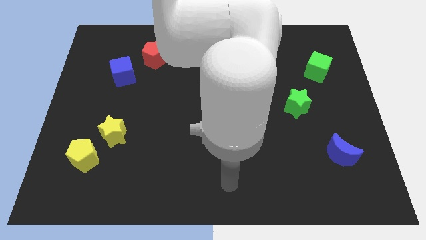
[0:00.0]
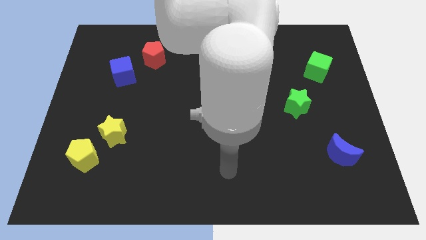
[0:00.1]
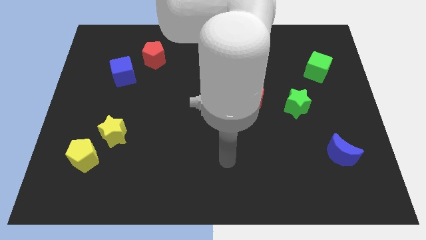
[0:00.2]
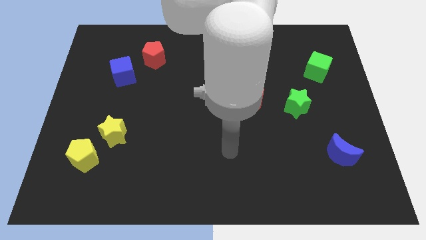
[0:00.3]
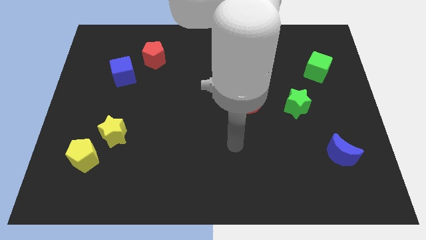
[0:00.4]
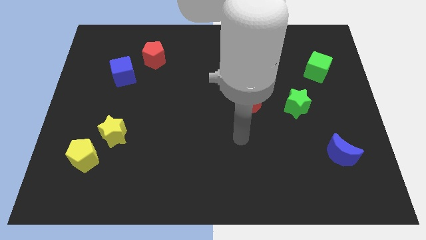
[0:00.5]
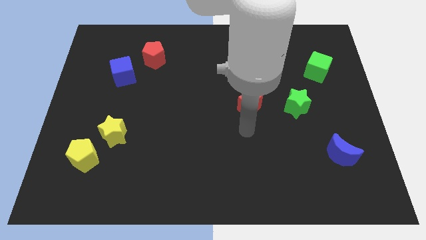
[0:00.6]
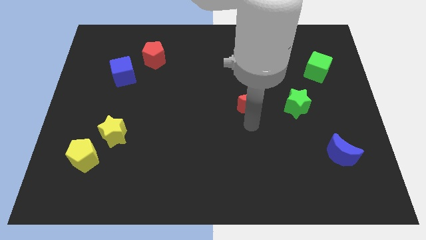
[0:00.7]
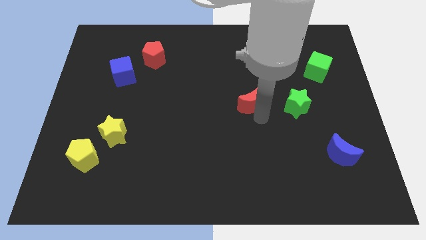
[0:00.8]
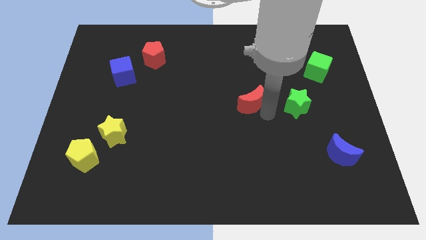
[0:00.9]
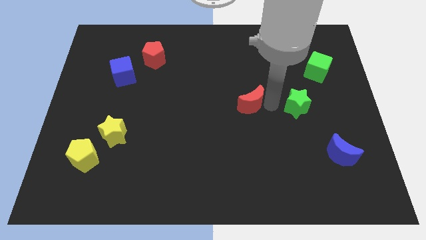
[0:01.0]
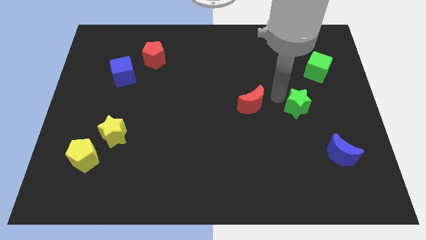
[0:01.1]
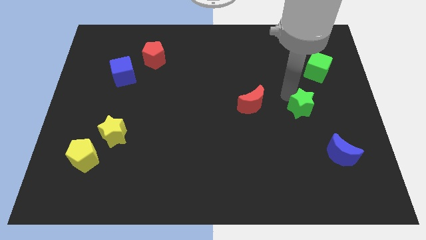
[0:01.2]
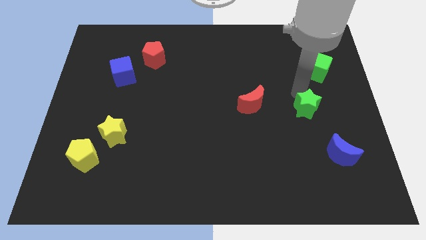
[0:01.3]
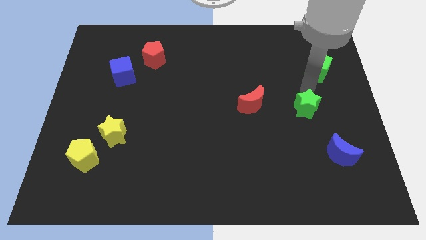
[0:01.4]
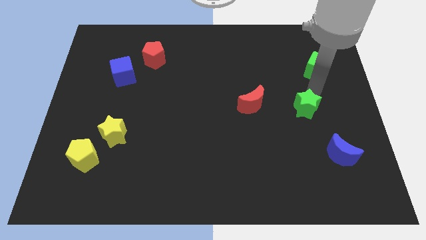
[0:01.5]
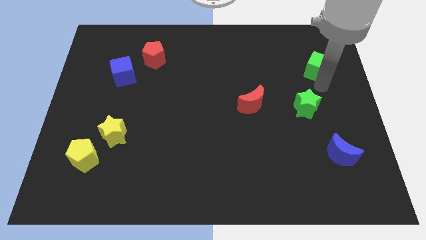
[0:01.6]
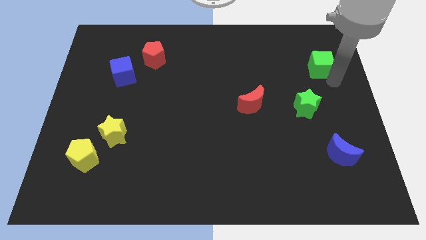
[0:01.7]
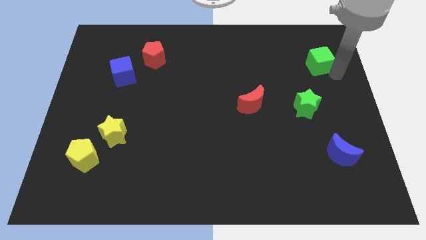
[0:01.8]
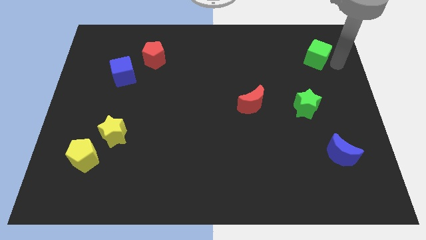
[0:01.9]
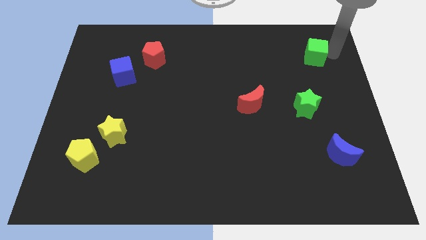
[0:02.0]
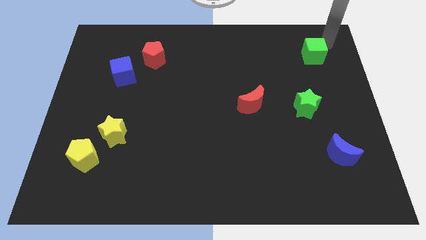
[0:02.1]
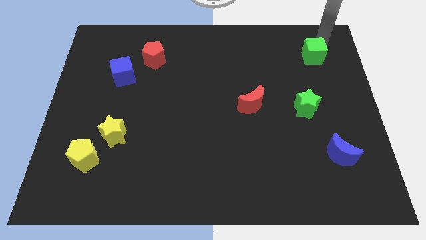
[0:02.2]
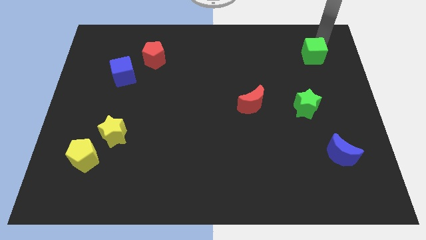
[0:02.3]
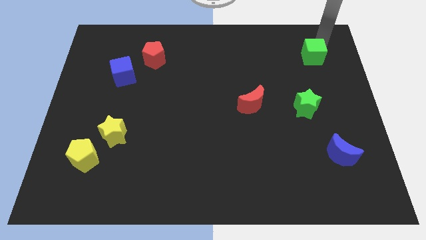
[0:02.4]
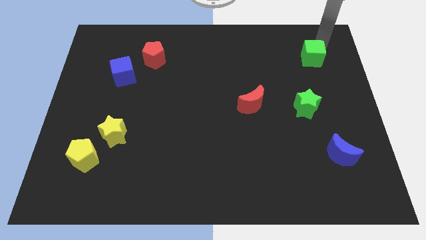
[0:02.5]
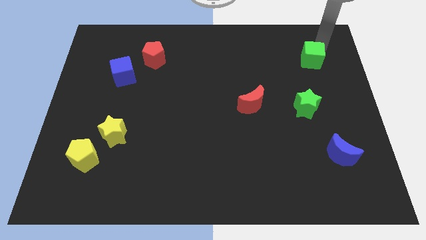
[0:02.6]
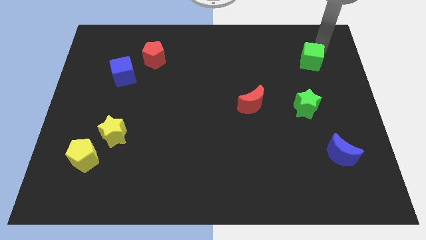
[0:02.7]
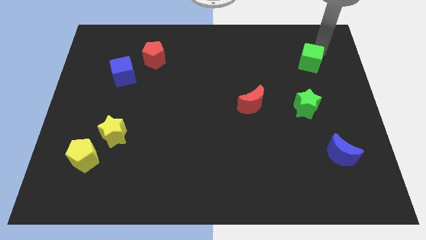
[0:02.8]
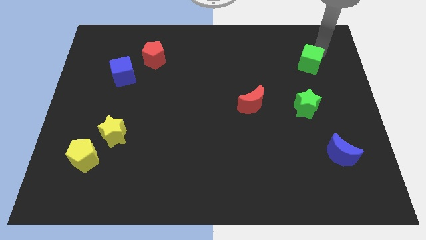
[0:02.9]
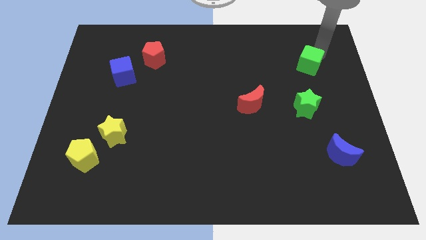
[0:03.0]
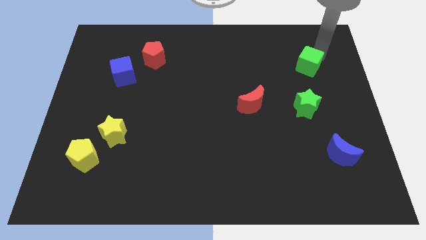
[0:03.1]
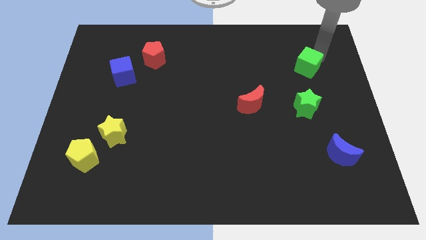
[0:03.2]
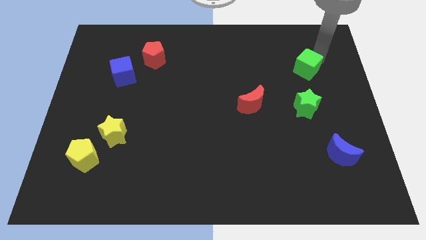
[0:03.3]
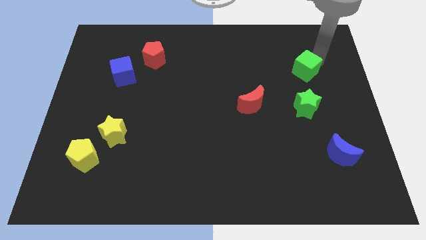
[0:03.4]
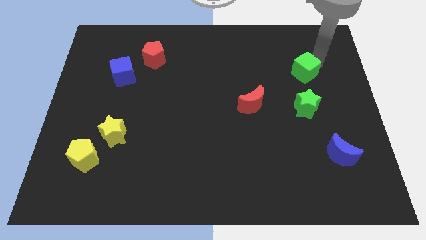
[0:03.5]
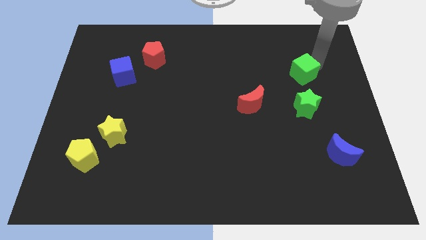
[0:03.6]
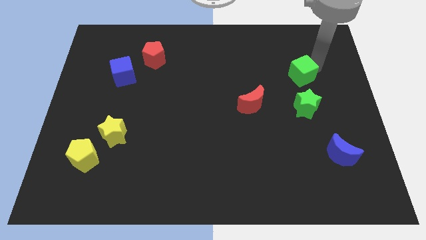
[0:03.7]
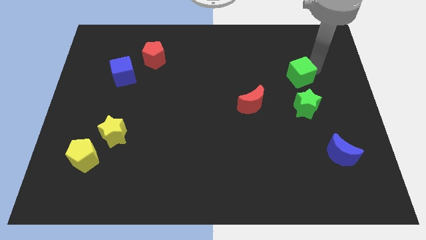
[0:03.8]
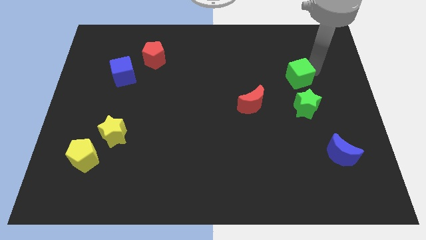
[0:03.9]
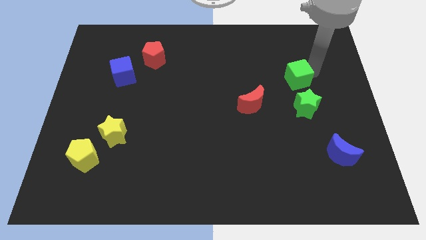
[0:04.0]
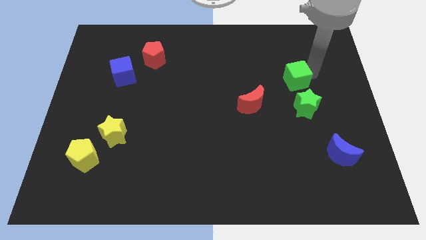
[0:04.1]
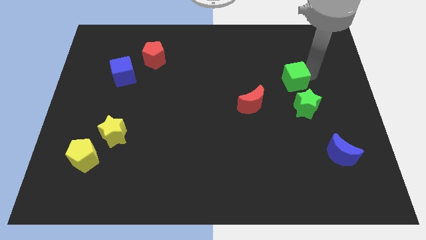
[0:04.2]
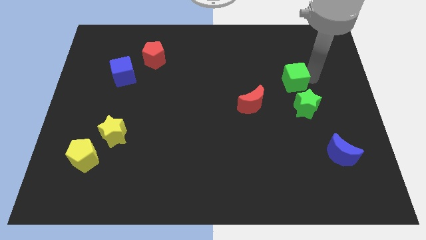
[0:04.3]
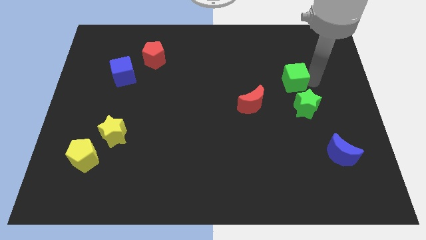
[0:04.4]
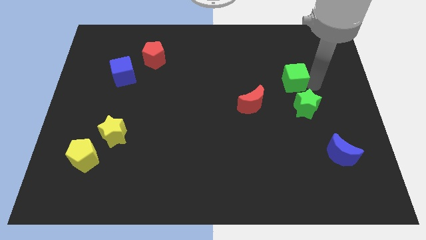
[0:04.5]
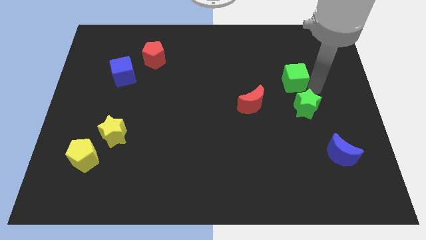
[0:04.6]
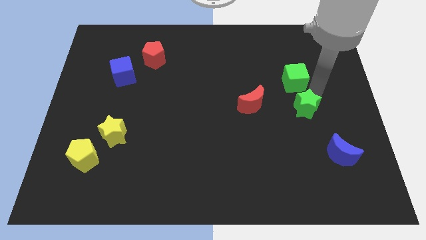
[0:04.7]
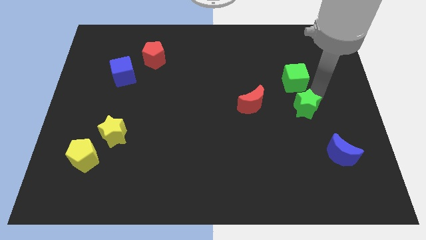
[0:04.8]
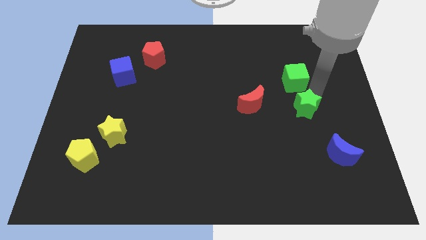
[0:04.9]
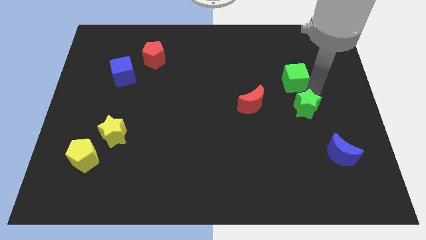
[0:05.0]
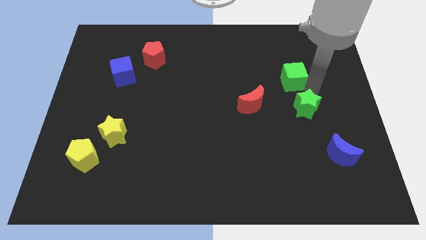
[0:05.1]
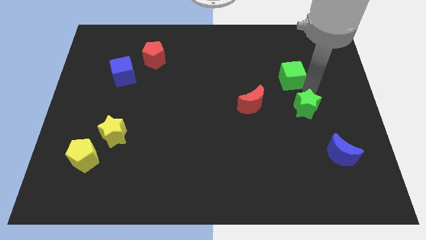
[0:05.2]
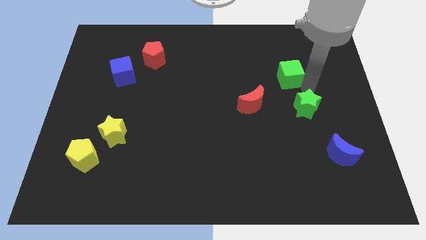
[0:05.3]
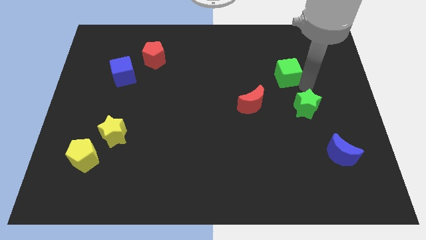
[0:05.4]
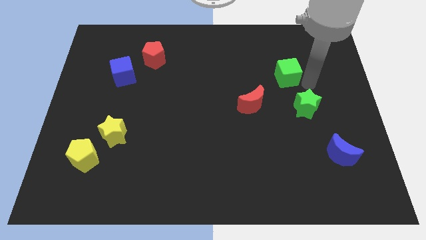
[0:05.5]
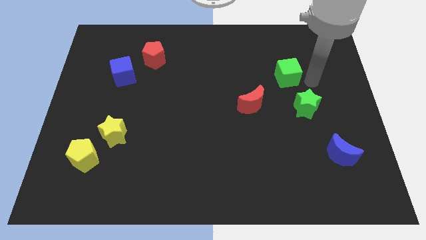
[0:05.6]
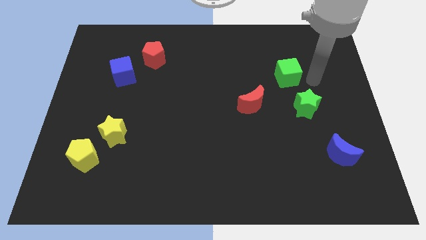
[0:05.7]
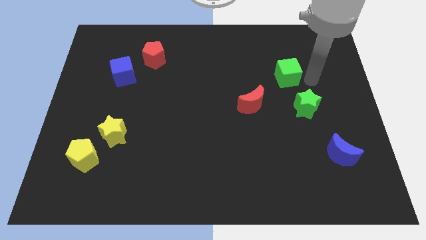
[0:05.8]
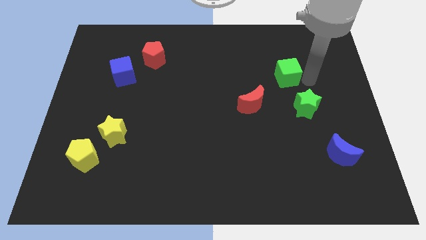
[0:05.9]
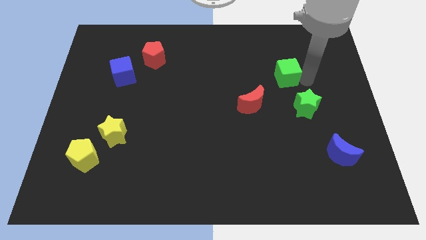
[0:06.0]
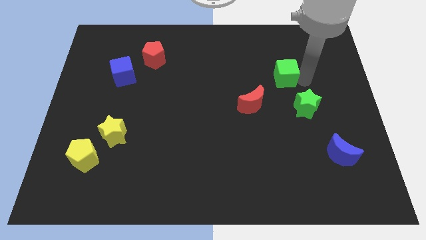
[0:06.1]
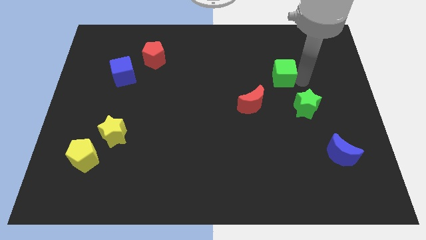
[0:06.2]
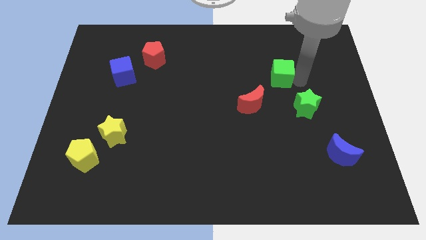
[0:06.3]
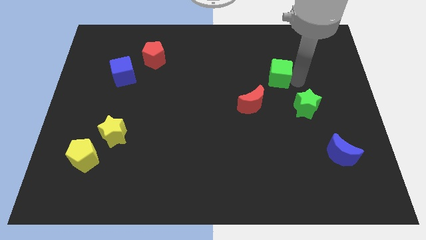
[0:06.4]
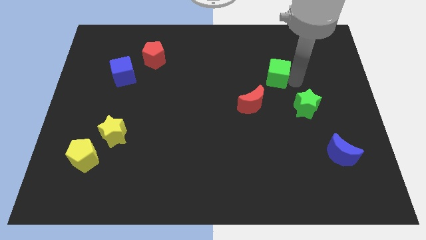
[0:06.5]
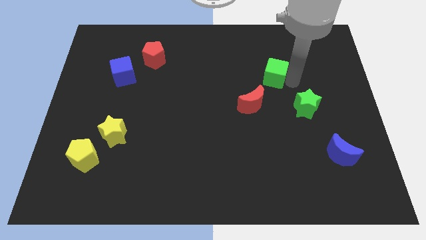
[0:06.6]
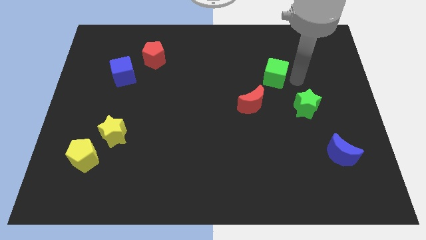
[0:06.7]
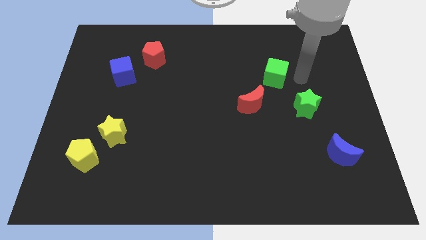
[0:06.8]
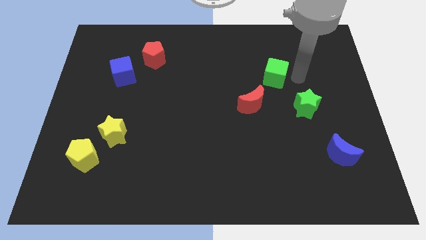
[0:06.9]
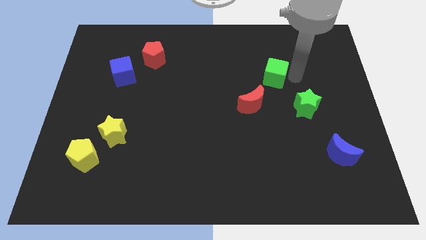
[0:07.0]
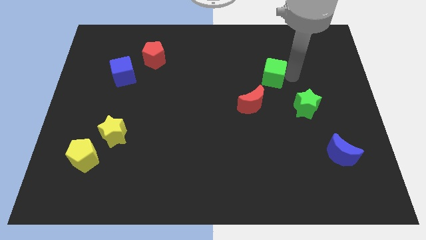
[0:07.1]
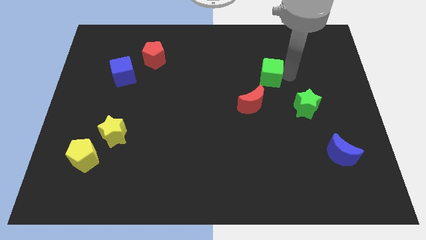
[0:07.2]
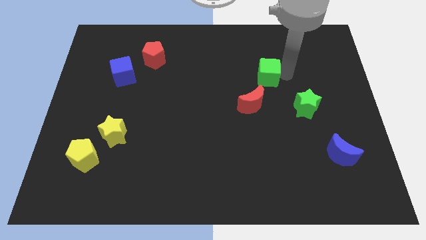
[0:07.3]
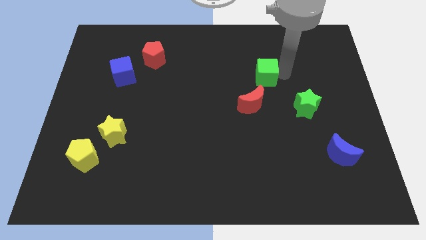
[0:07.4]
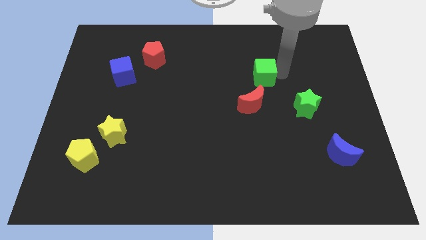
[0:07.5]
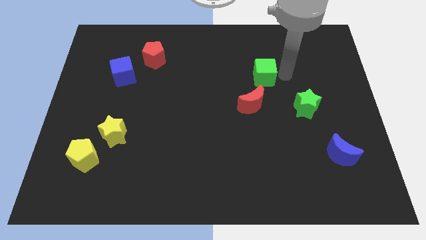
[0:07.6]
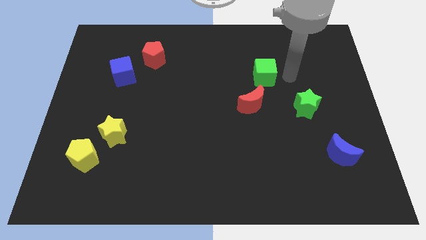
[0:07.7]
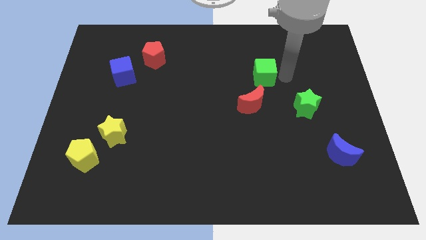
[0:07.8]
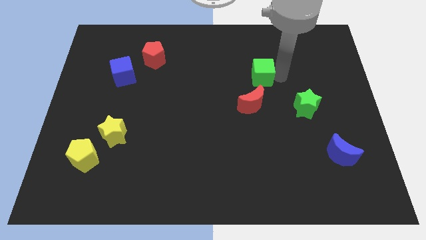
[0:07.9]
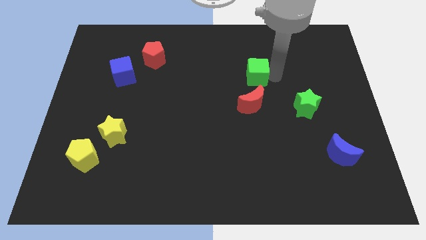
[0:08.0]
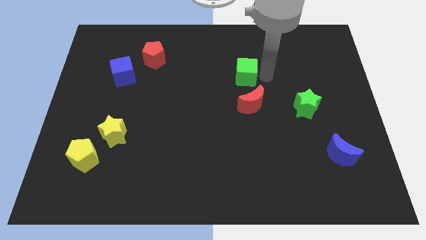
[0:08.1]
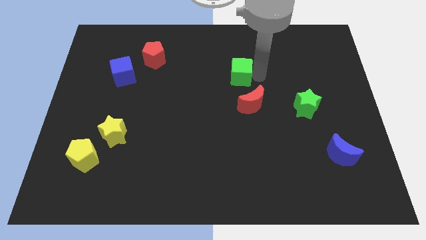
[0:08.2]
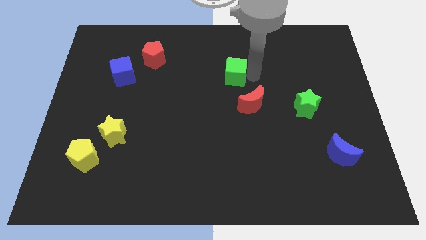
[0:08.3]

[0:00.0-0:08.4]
push the green cube left
